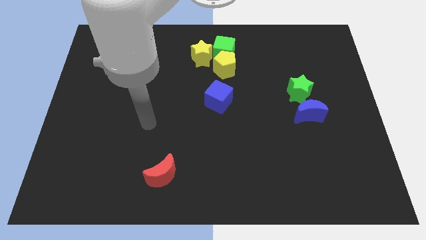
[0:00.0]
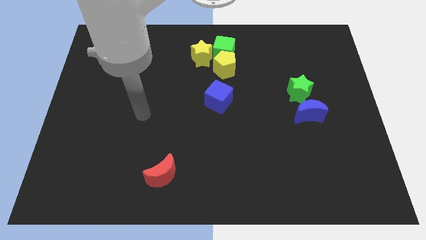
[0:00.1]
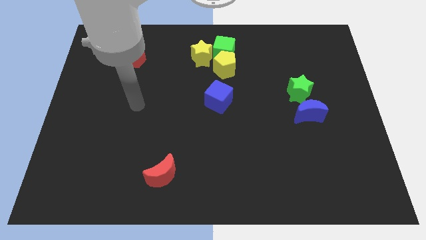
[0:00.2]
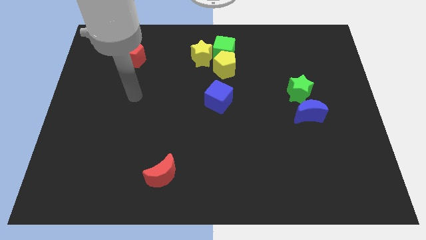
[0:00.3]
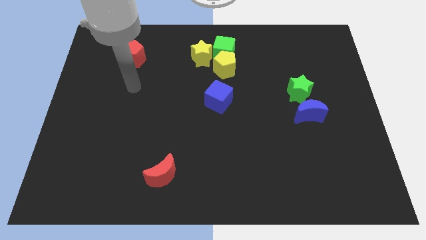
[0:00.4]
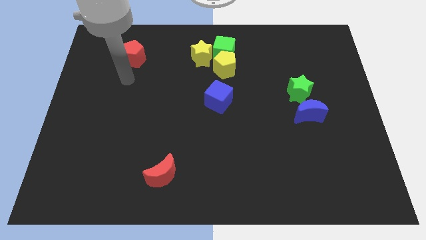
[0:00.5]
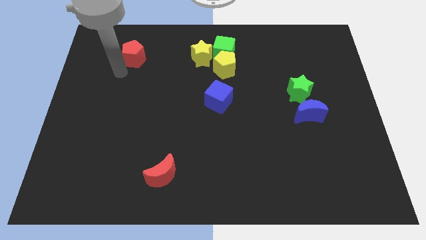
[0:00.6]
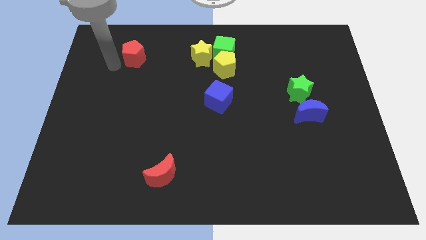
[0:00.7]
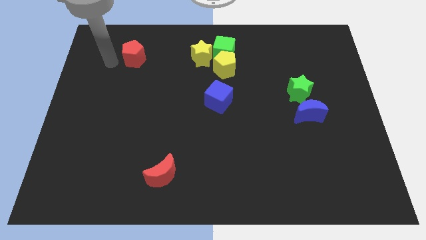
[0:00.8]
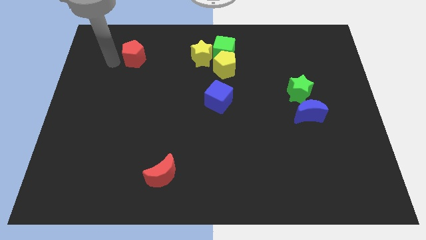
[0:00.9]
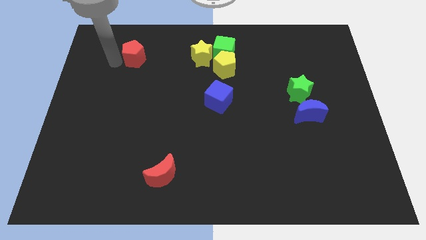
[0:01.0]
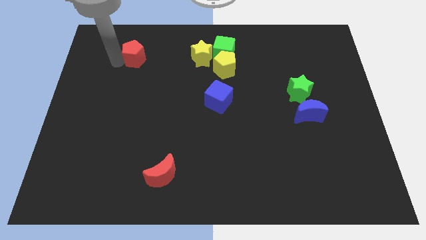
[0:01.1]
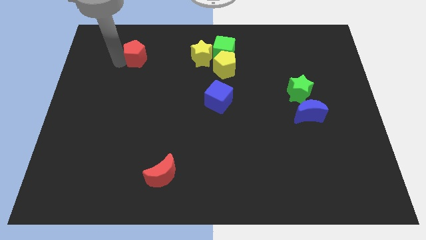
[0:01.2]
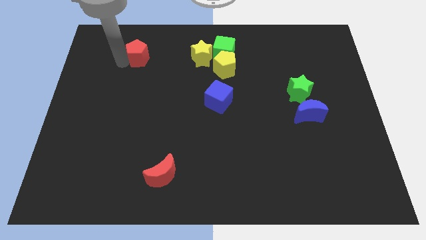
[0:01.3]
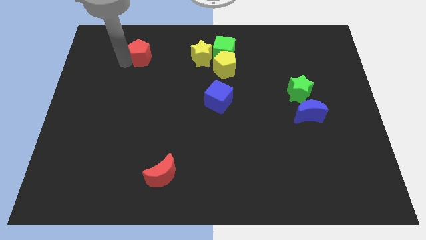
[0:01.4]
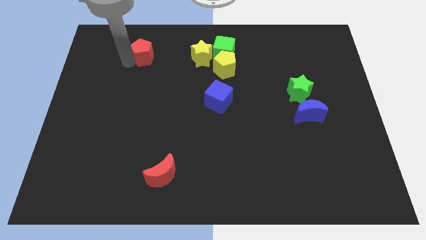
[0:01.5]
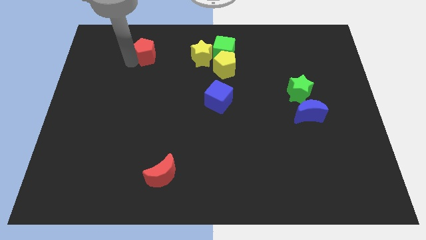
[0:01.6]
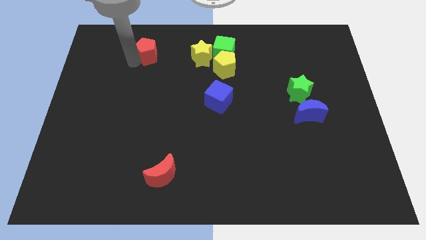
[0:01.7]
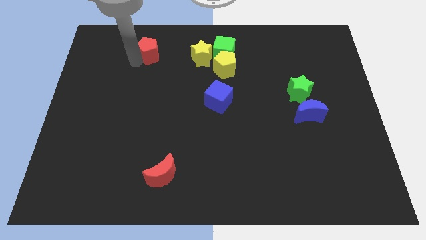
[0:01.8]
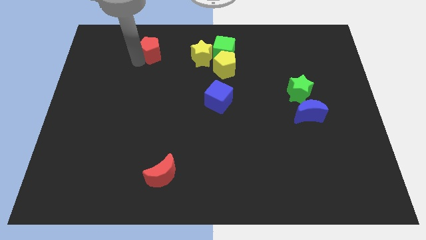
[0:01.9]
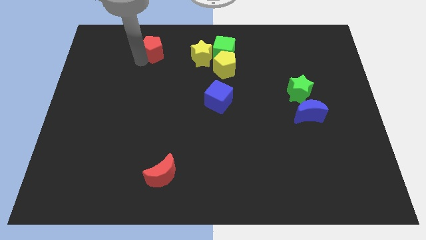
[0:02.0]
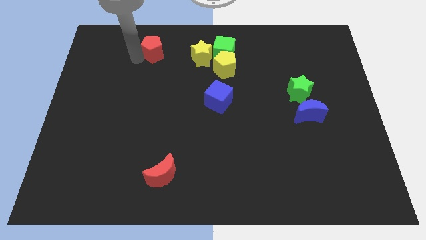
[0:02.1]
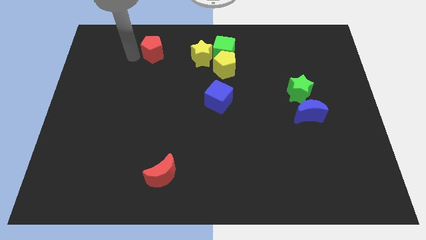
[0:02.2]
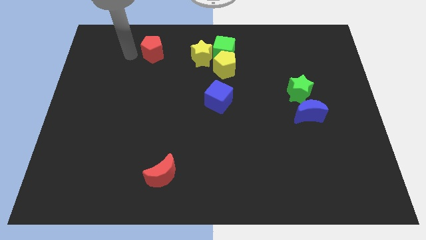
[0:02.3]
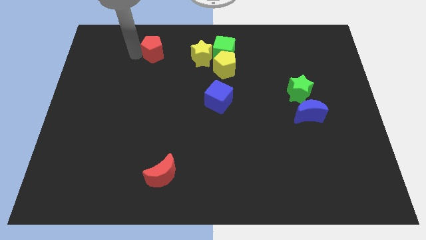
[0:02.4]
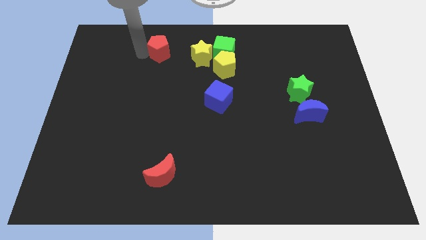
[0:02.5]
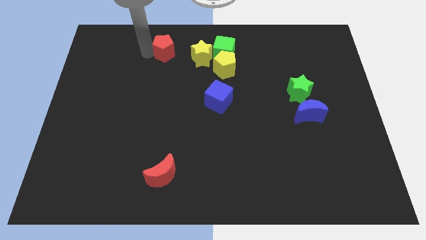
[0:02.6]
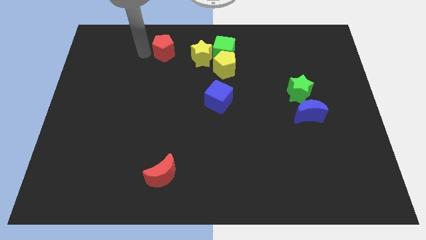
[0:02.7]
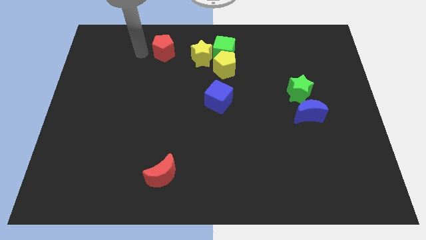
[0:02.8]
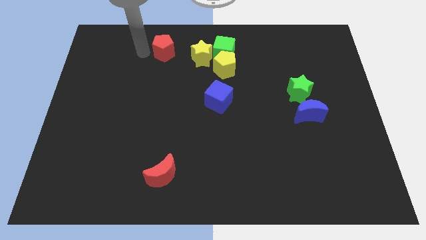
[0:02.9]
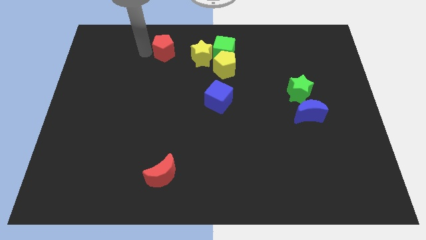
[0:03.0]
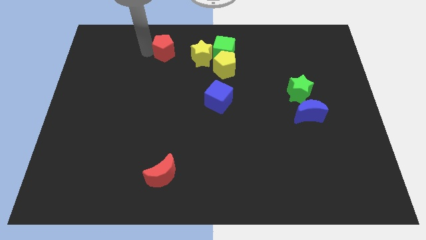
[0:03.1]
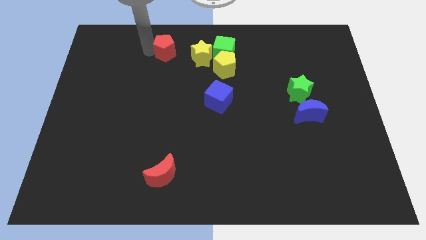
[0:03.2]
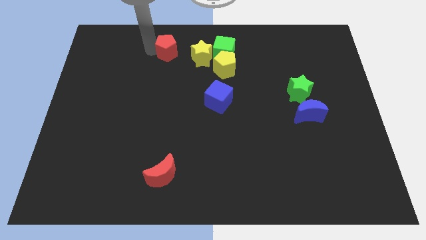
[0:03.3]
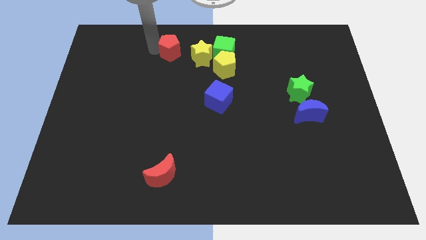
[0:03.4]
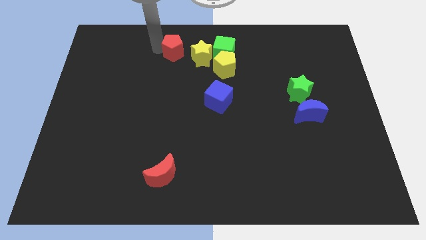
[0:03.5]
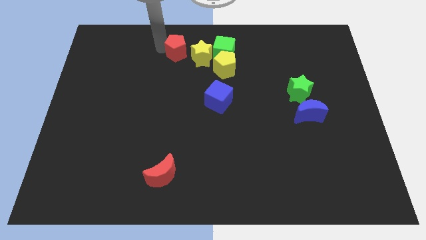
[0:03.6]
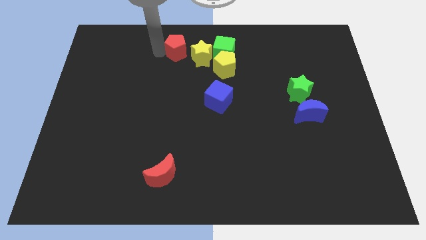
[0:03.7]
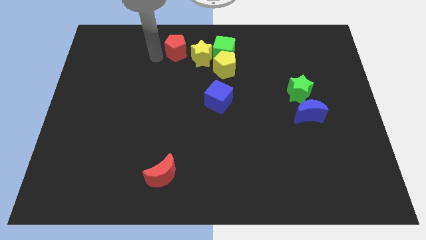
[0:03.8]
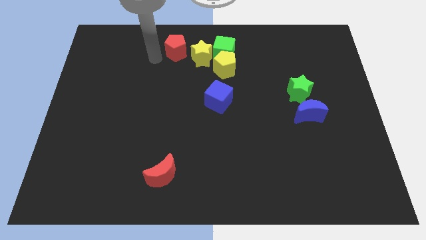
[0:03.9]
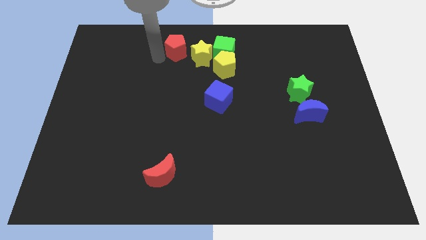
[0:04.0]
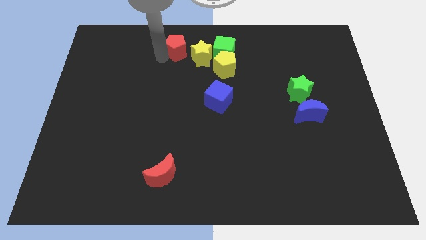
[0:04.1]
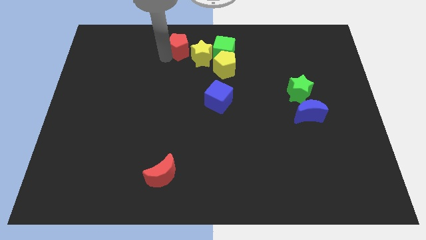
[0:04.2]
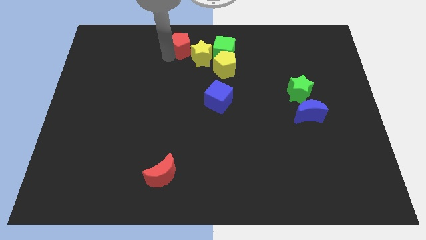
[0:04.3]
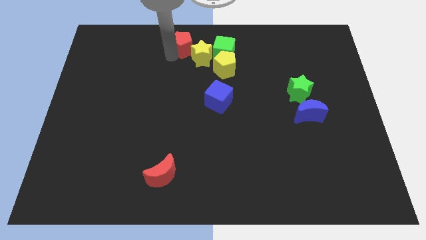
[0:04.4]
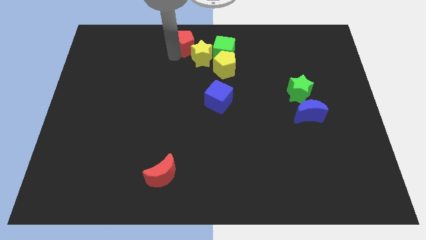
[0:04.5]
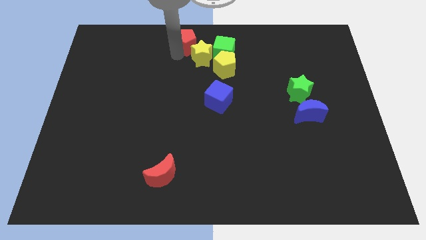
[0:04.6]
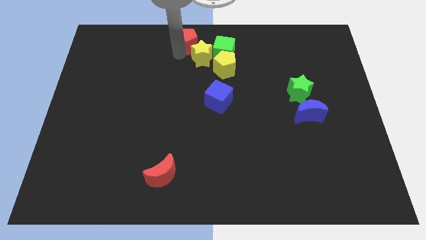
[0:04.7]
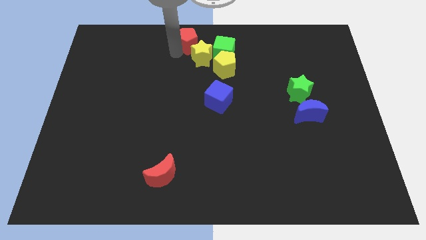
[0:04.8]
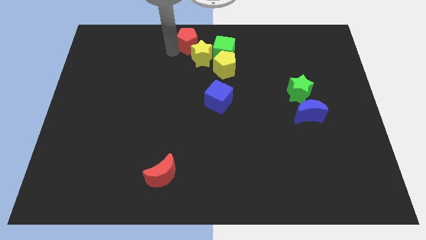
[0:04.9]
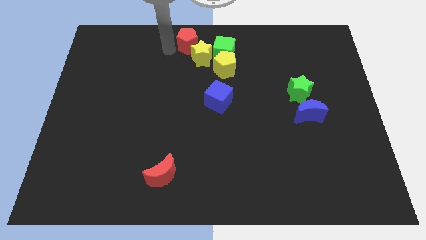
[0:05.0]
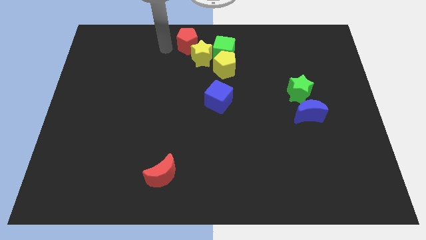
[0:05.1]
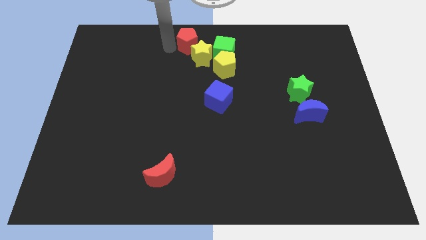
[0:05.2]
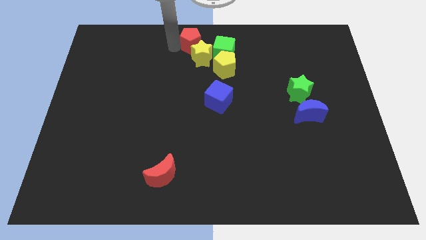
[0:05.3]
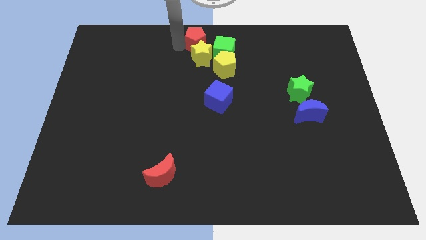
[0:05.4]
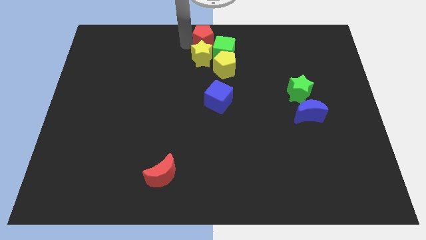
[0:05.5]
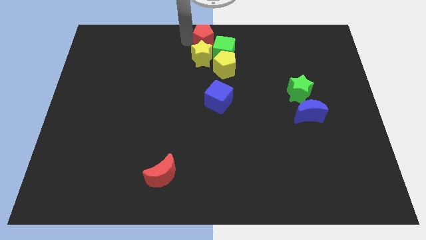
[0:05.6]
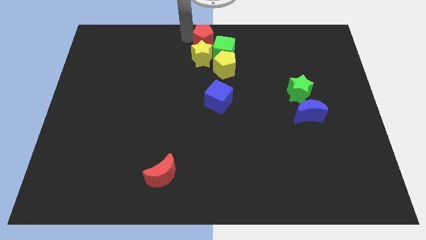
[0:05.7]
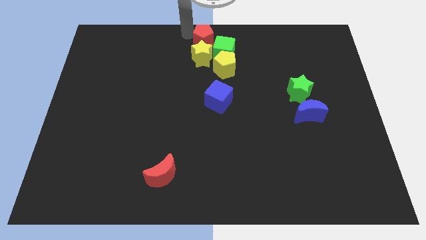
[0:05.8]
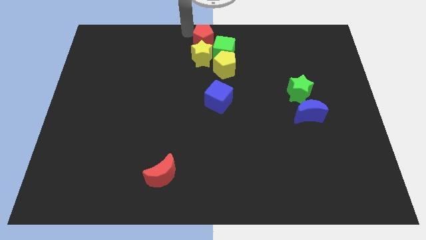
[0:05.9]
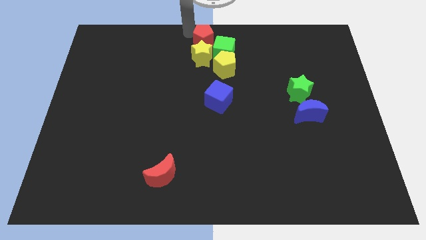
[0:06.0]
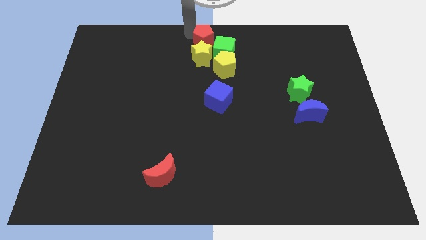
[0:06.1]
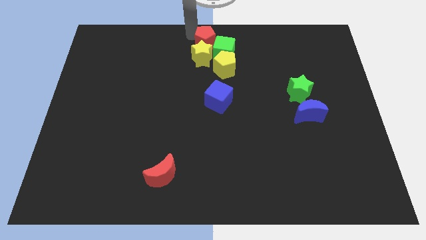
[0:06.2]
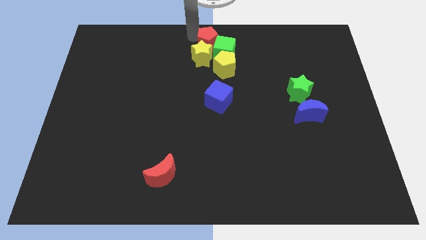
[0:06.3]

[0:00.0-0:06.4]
move the red pentagon close to the green cube

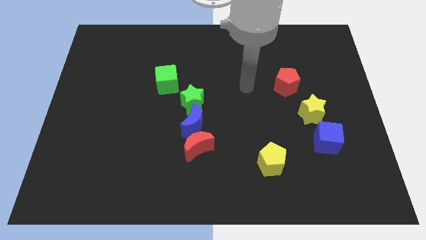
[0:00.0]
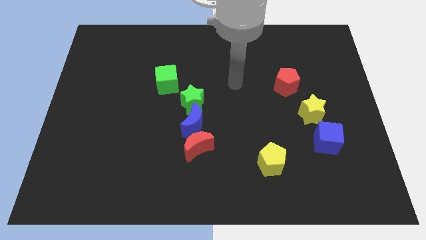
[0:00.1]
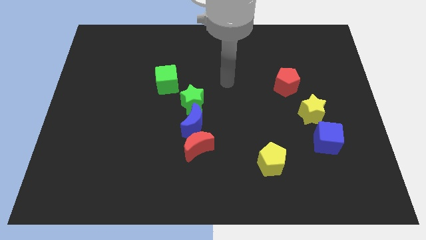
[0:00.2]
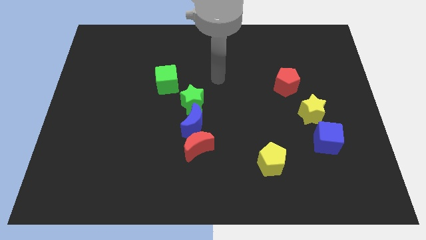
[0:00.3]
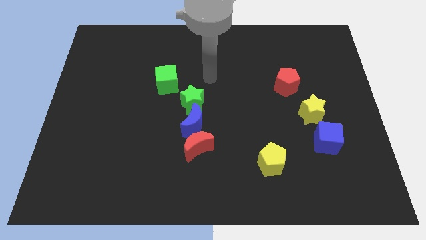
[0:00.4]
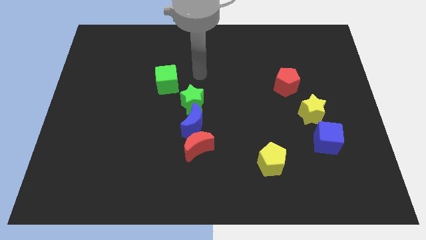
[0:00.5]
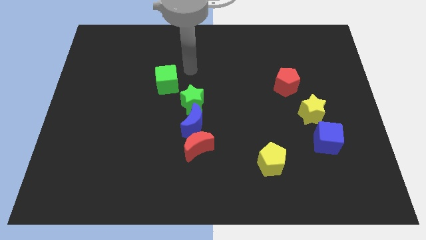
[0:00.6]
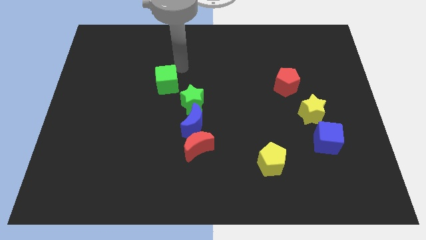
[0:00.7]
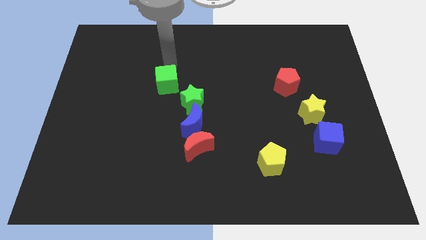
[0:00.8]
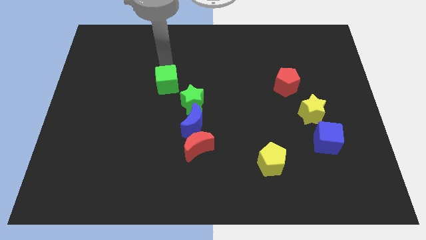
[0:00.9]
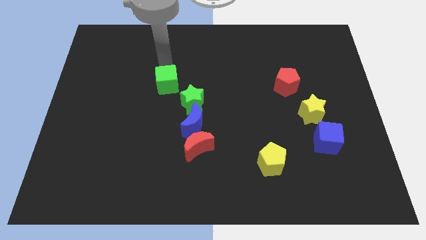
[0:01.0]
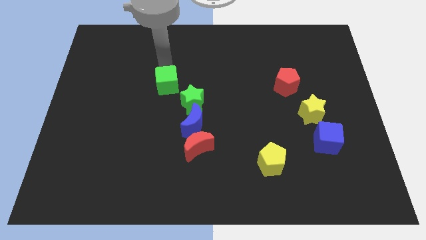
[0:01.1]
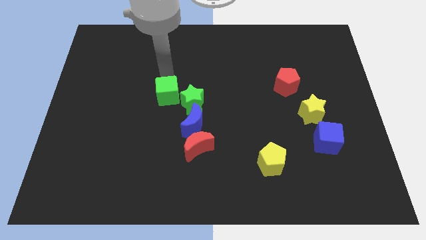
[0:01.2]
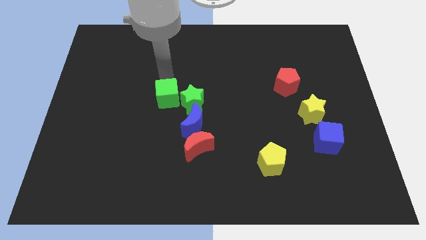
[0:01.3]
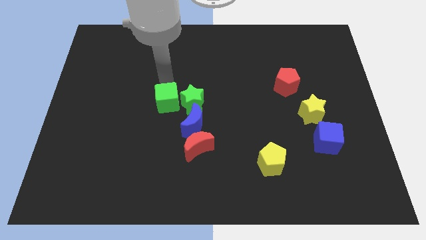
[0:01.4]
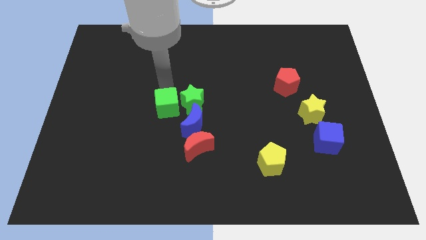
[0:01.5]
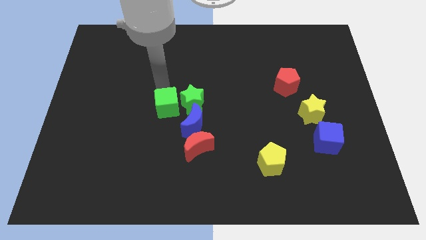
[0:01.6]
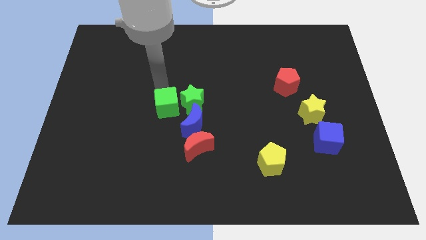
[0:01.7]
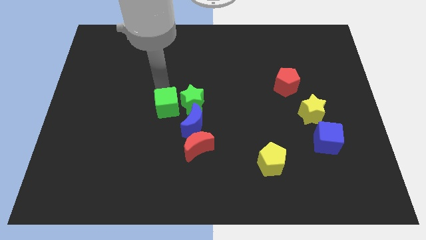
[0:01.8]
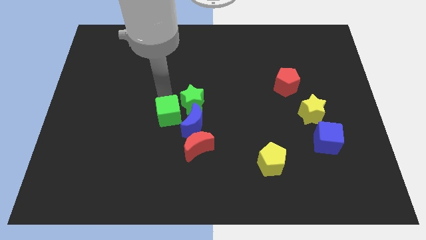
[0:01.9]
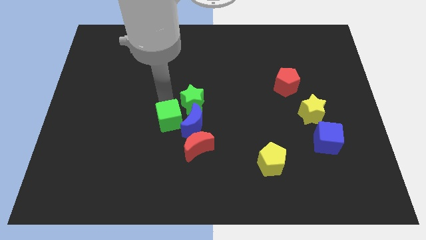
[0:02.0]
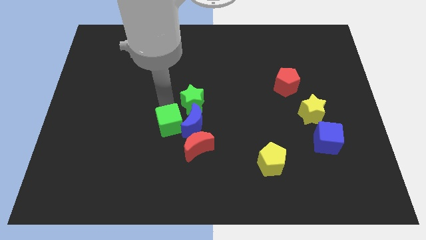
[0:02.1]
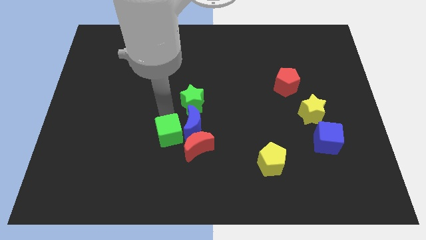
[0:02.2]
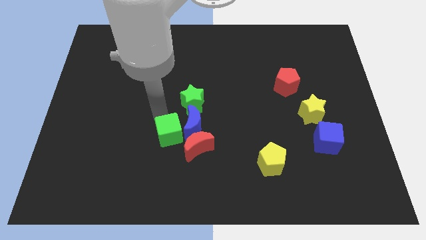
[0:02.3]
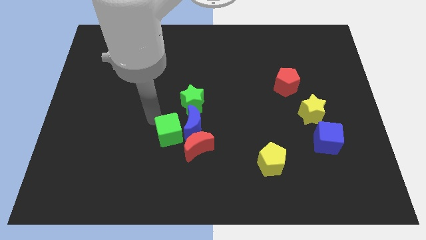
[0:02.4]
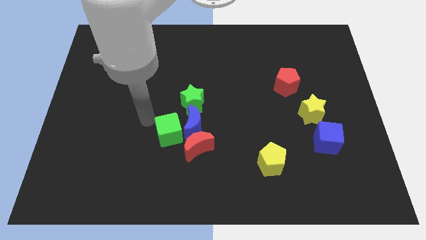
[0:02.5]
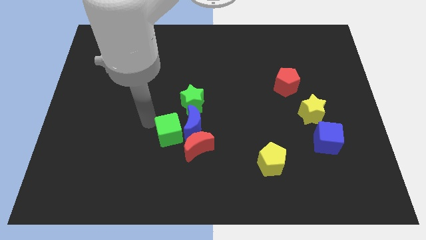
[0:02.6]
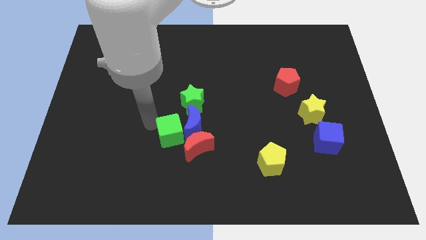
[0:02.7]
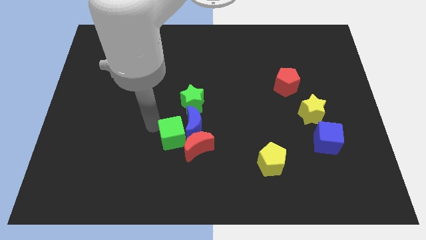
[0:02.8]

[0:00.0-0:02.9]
slide the green cube next to the red moon
